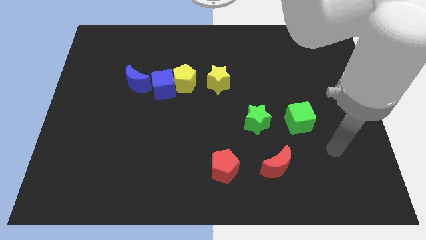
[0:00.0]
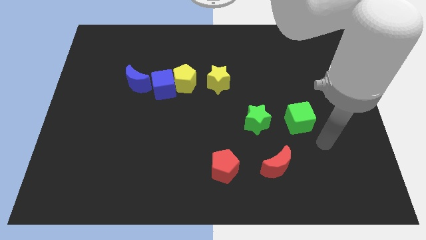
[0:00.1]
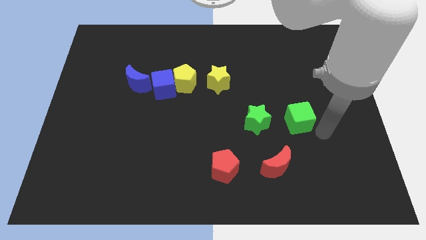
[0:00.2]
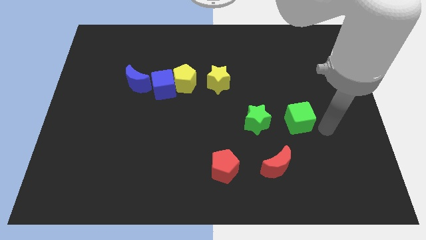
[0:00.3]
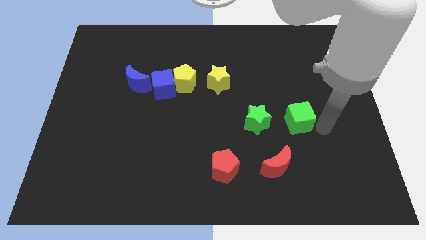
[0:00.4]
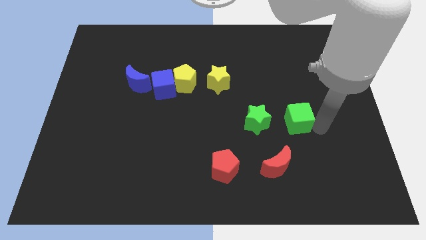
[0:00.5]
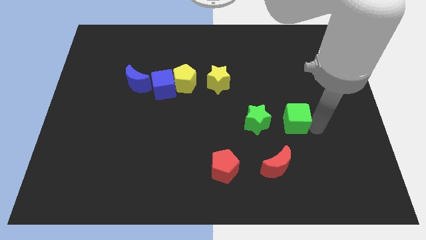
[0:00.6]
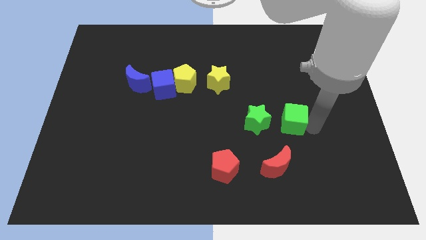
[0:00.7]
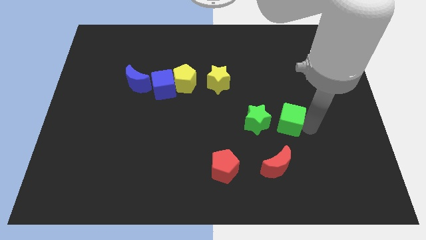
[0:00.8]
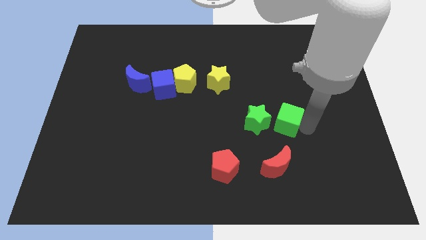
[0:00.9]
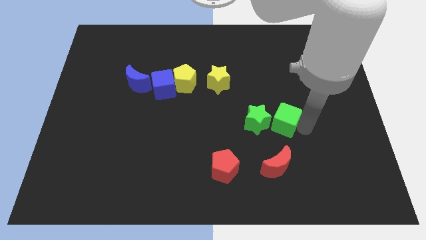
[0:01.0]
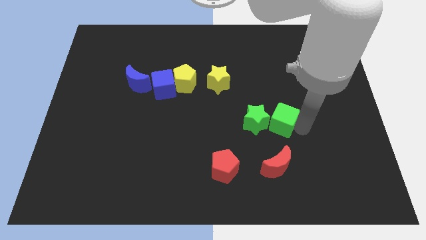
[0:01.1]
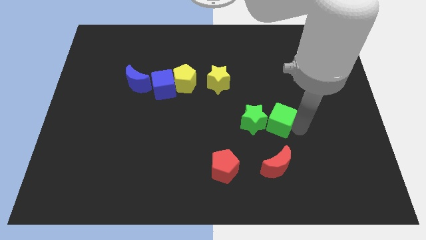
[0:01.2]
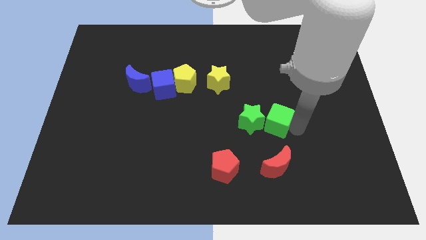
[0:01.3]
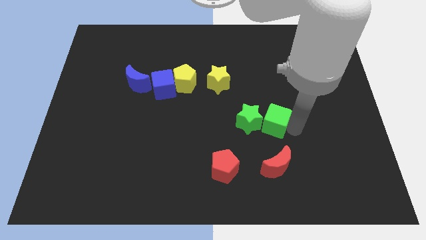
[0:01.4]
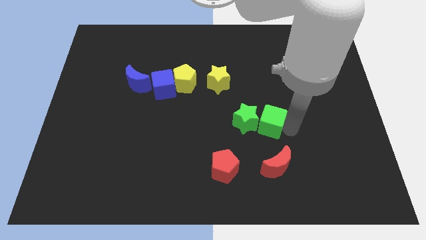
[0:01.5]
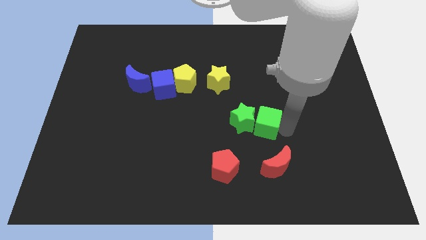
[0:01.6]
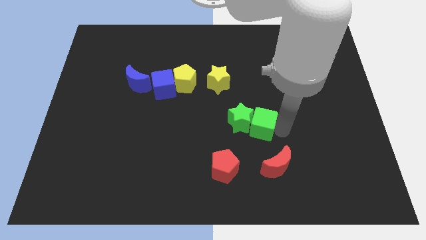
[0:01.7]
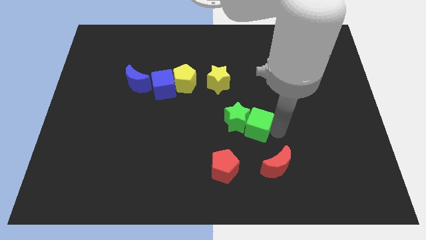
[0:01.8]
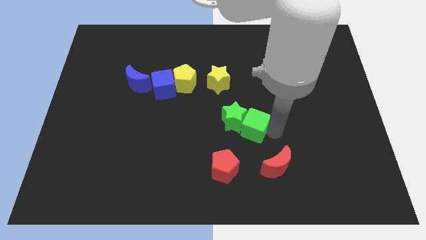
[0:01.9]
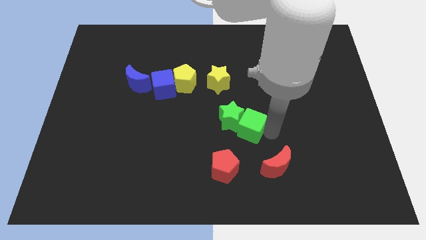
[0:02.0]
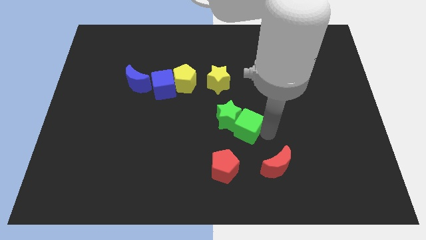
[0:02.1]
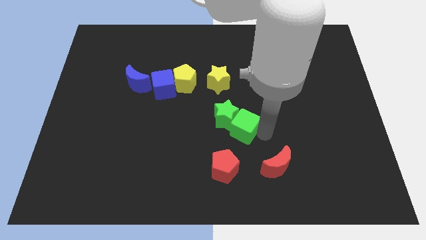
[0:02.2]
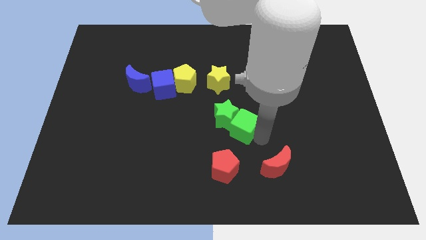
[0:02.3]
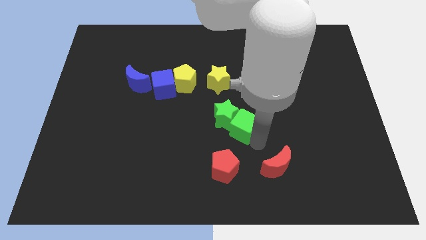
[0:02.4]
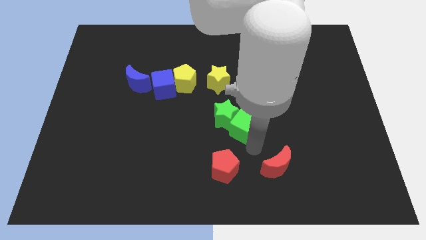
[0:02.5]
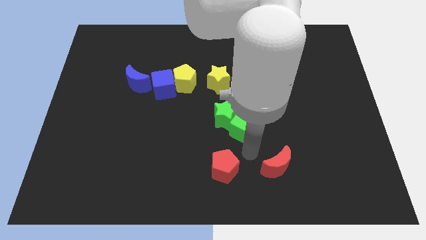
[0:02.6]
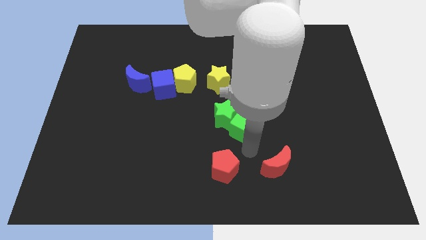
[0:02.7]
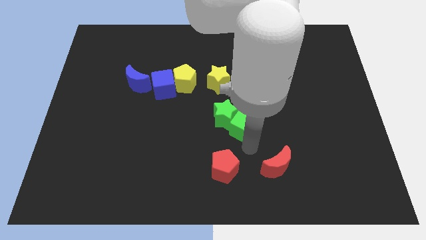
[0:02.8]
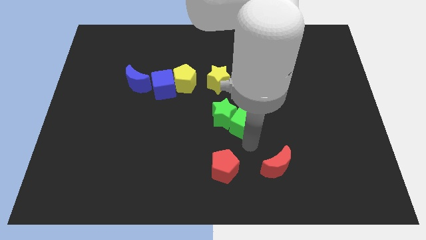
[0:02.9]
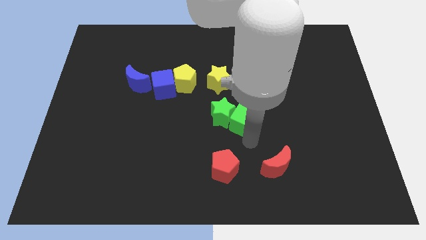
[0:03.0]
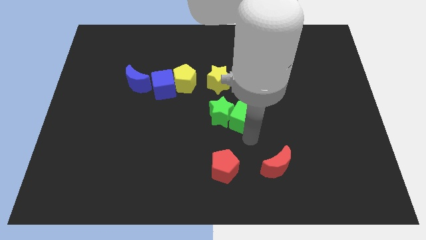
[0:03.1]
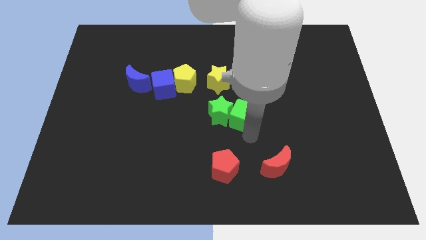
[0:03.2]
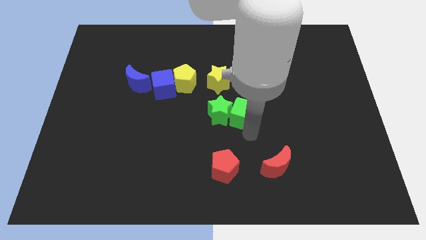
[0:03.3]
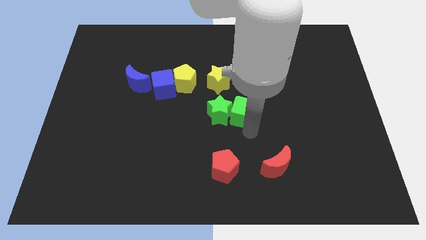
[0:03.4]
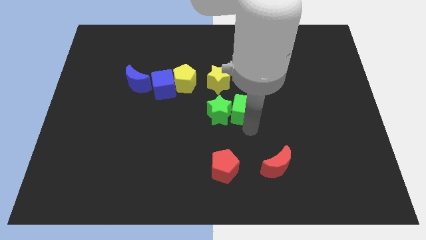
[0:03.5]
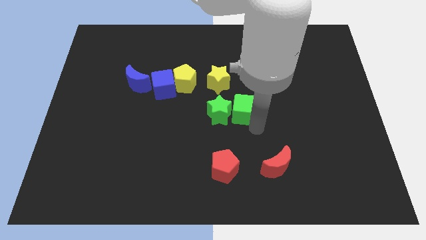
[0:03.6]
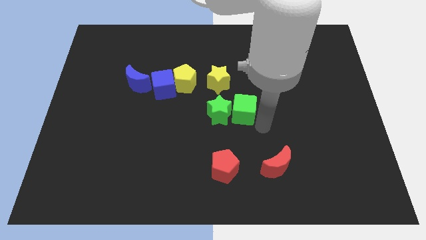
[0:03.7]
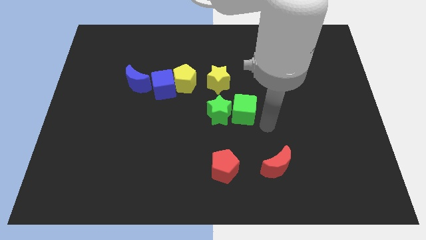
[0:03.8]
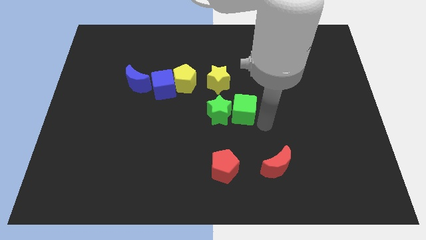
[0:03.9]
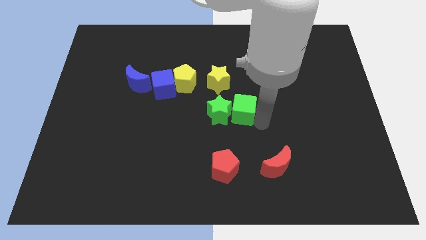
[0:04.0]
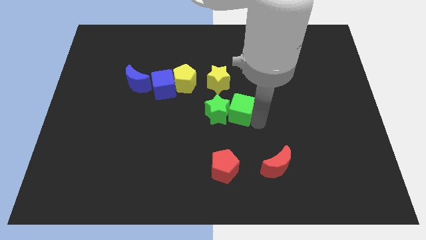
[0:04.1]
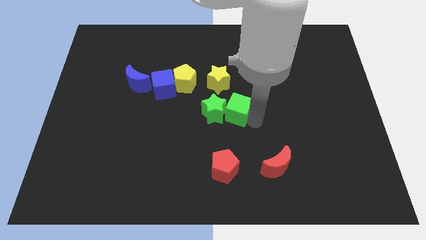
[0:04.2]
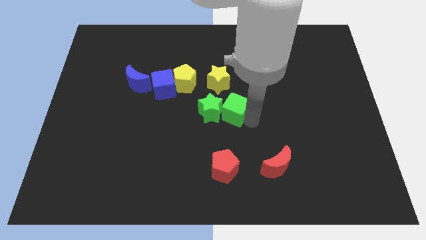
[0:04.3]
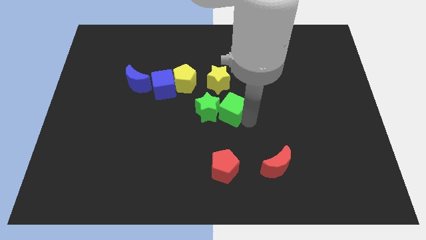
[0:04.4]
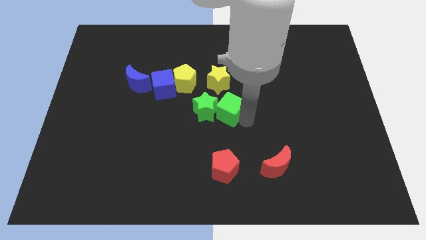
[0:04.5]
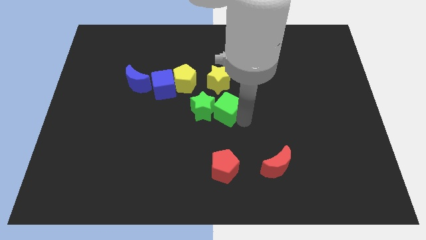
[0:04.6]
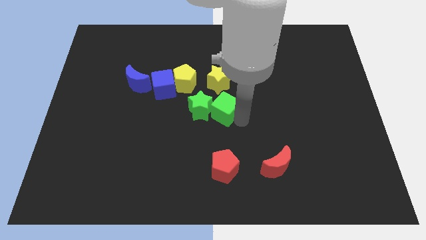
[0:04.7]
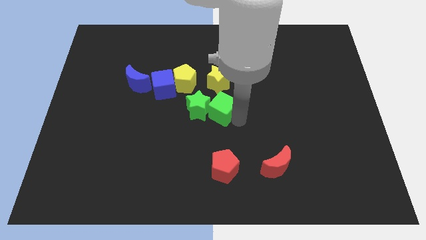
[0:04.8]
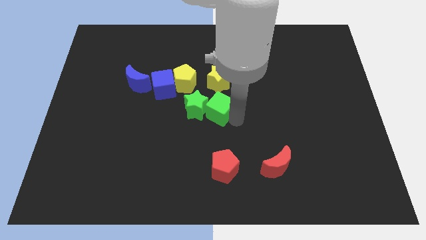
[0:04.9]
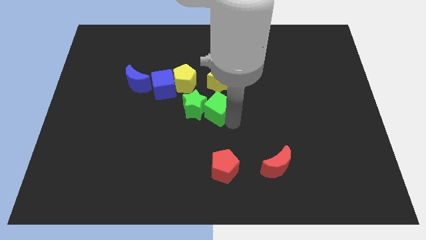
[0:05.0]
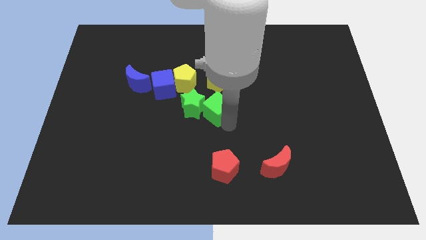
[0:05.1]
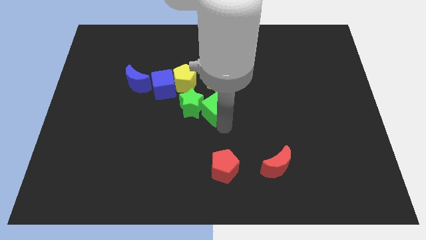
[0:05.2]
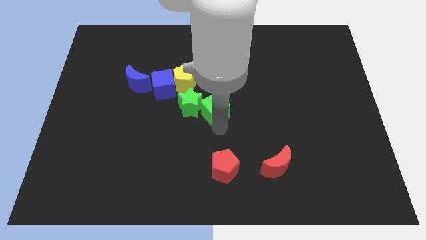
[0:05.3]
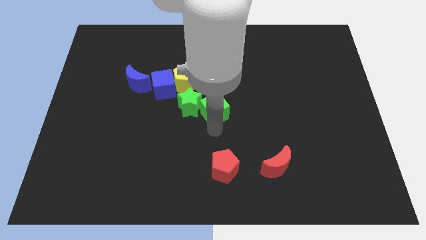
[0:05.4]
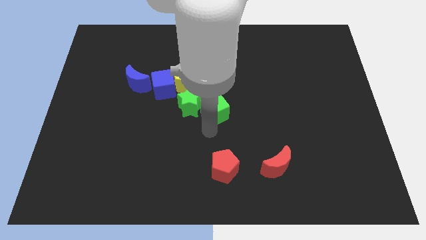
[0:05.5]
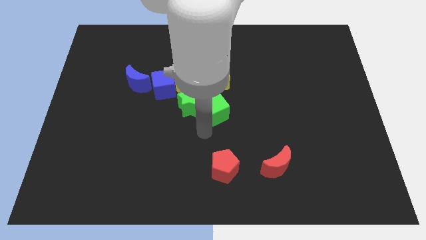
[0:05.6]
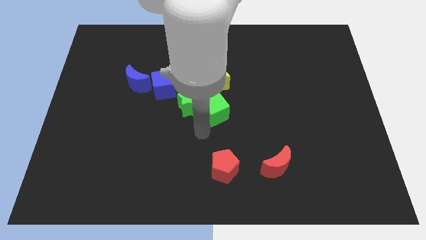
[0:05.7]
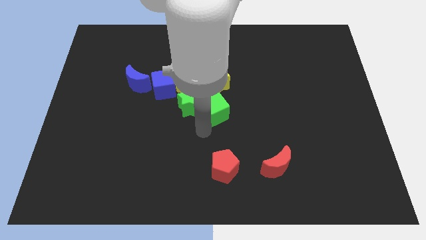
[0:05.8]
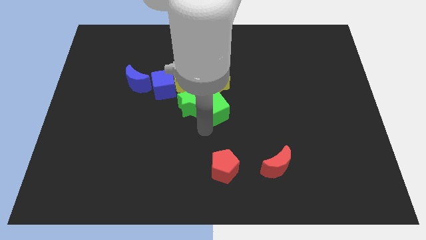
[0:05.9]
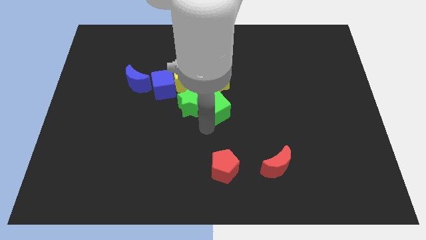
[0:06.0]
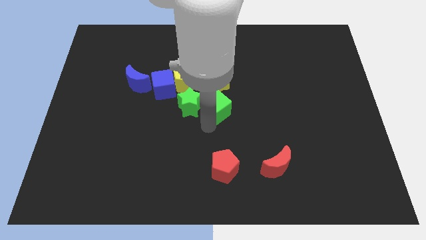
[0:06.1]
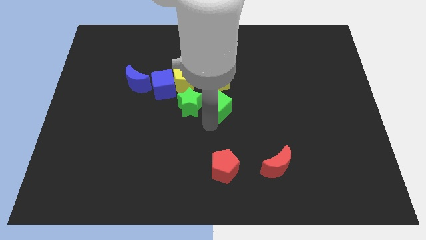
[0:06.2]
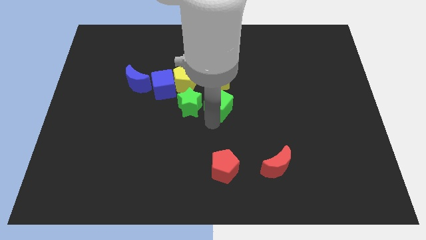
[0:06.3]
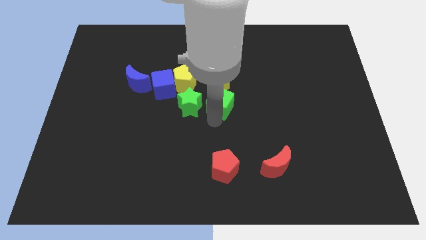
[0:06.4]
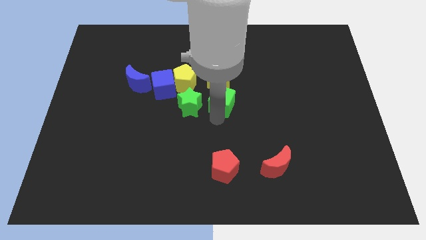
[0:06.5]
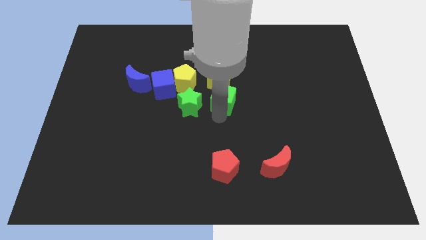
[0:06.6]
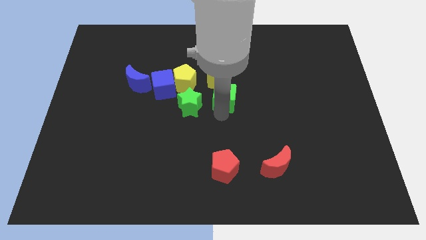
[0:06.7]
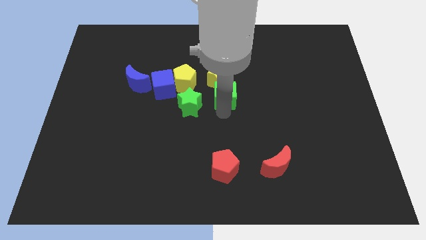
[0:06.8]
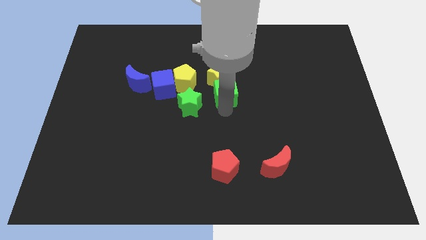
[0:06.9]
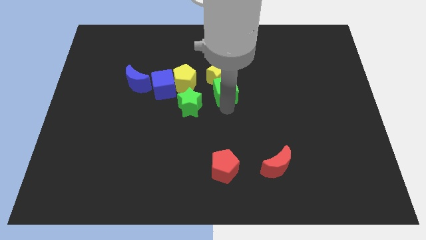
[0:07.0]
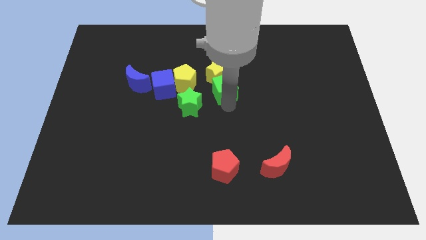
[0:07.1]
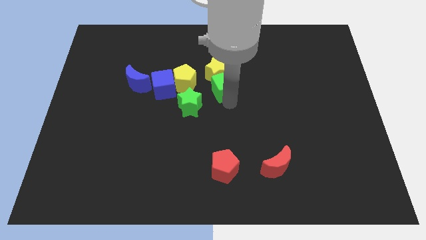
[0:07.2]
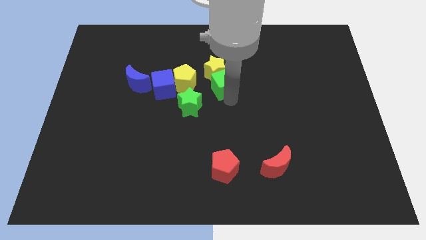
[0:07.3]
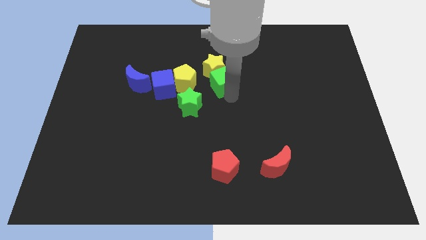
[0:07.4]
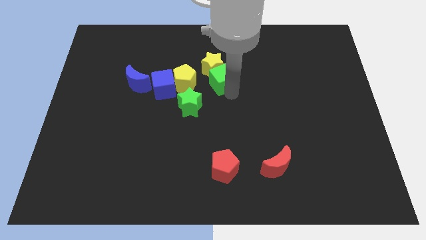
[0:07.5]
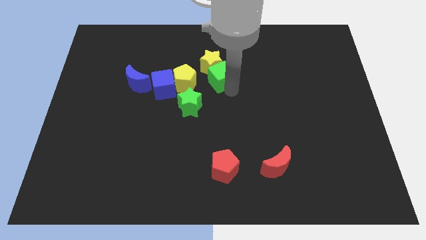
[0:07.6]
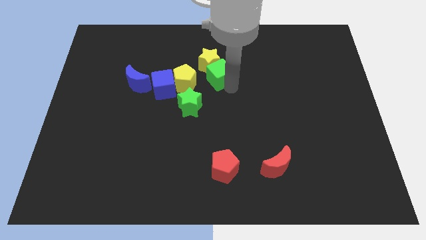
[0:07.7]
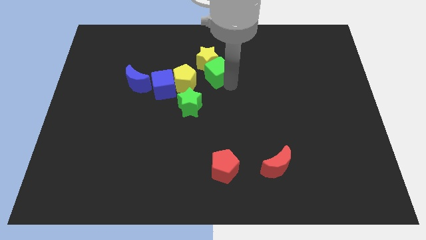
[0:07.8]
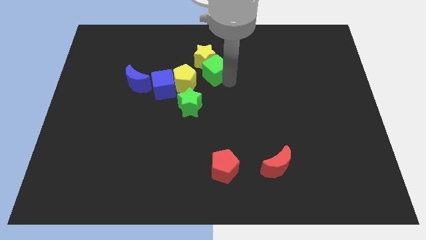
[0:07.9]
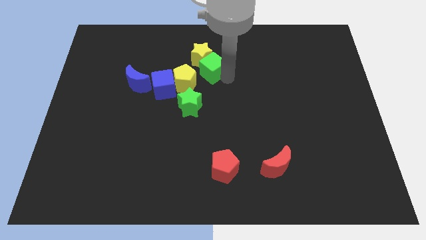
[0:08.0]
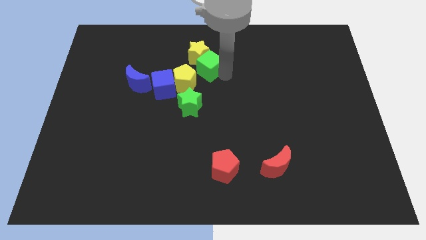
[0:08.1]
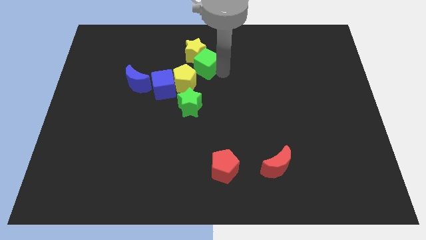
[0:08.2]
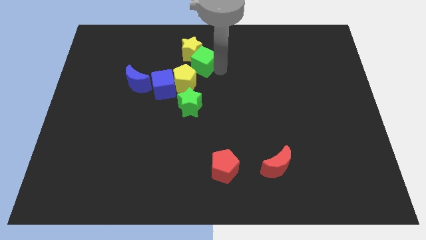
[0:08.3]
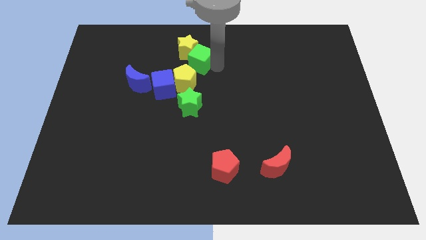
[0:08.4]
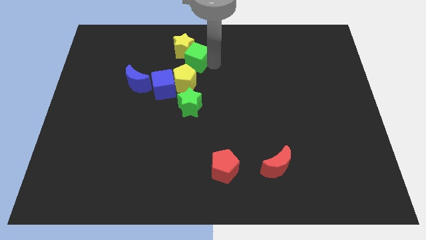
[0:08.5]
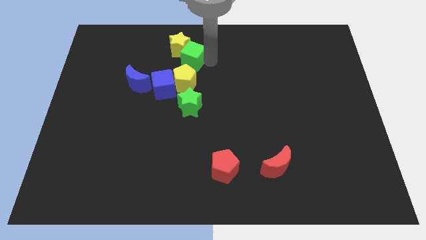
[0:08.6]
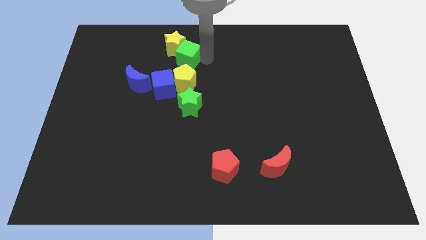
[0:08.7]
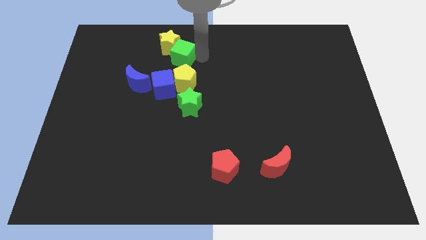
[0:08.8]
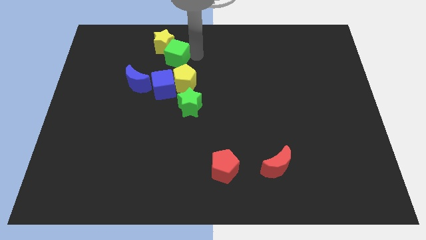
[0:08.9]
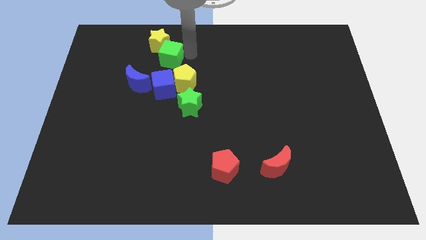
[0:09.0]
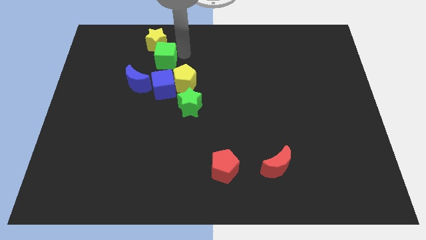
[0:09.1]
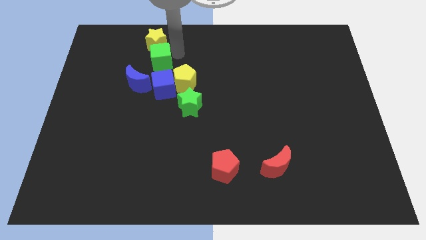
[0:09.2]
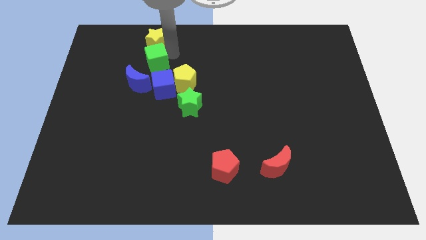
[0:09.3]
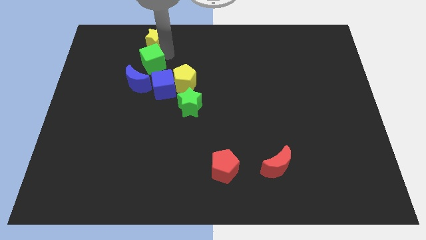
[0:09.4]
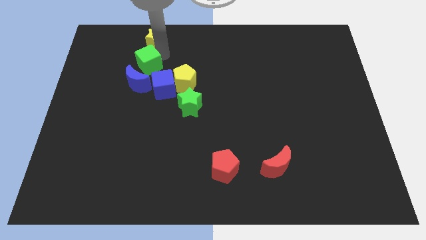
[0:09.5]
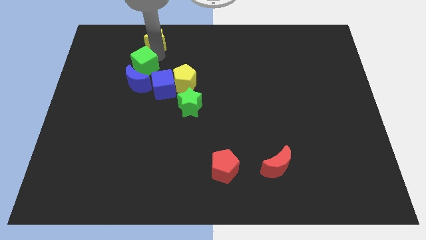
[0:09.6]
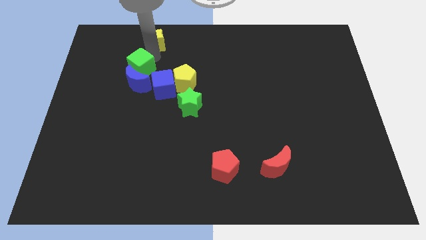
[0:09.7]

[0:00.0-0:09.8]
slide the green cube diagonally up and to the left of the blue moon
